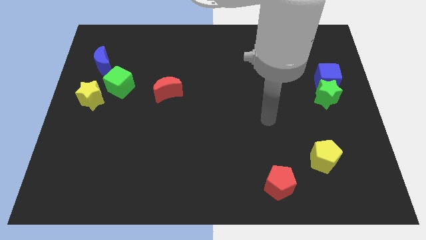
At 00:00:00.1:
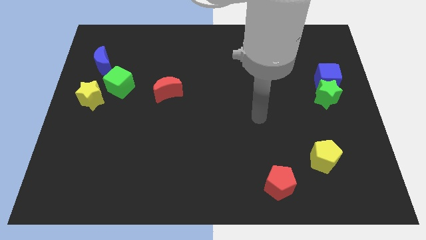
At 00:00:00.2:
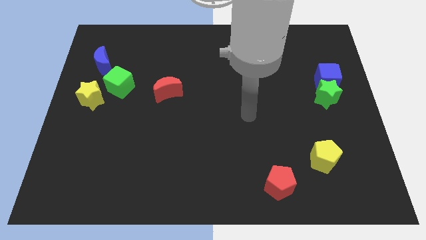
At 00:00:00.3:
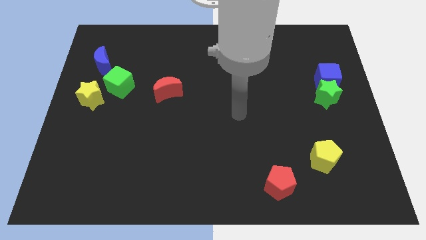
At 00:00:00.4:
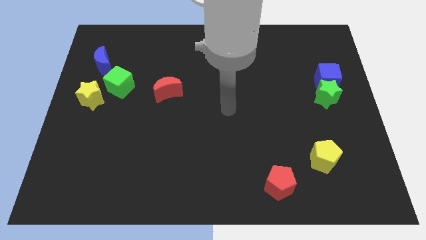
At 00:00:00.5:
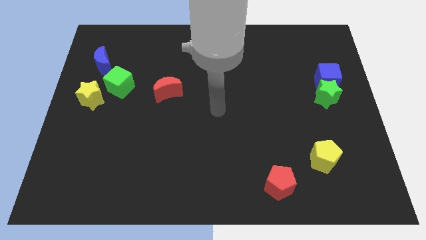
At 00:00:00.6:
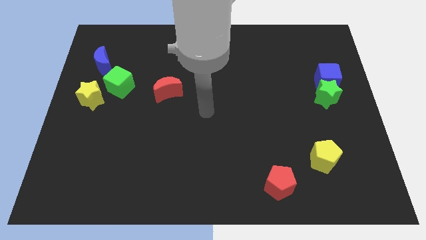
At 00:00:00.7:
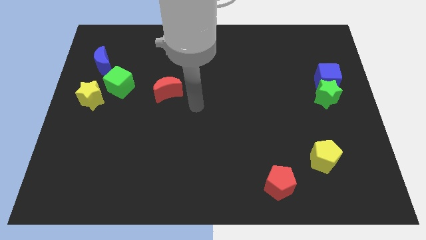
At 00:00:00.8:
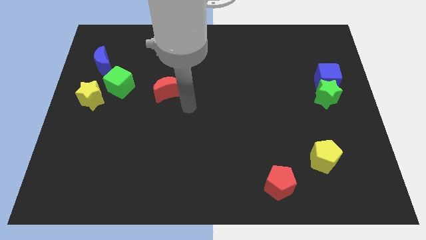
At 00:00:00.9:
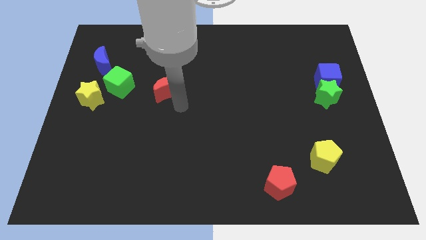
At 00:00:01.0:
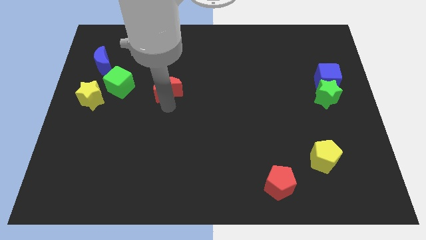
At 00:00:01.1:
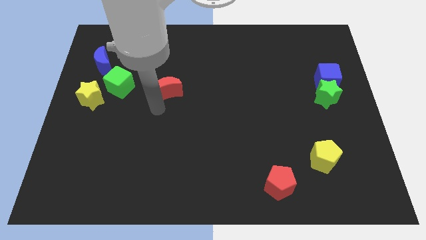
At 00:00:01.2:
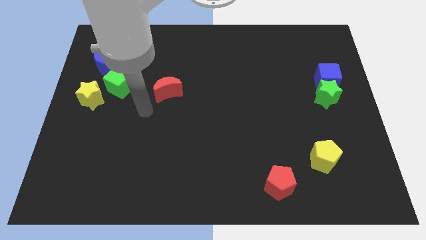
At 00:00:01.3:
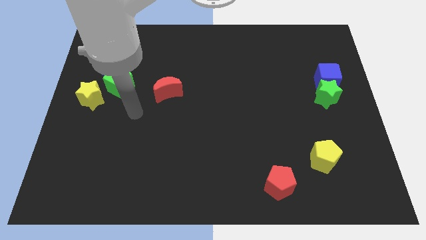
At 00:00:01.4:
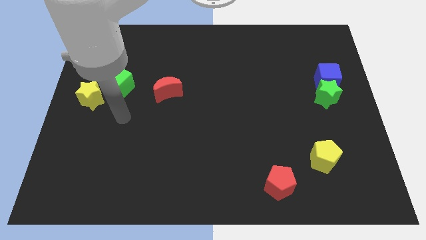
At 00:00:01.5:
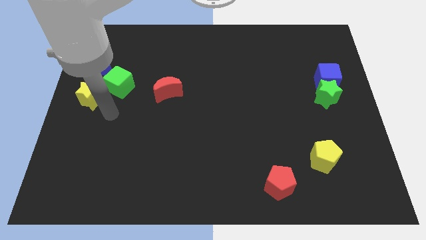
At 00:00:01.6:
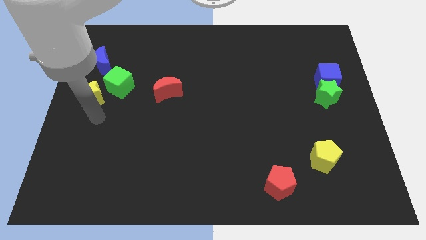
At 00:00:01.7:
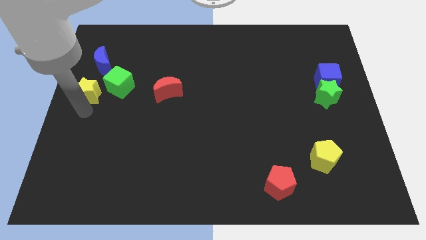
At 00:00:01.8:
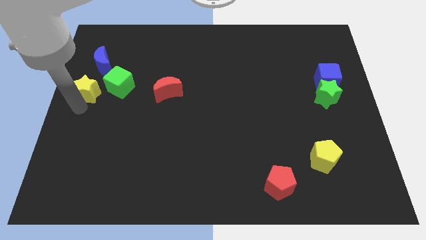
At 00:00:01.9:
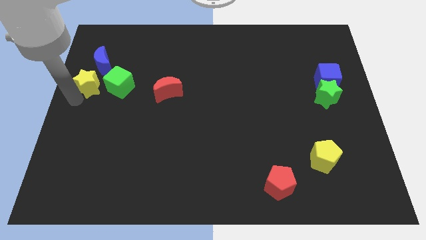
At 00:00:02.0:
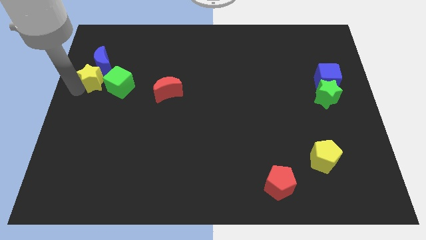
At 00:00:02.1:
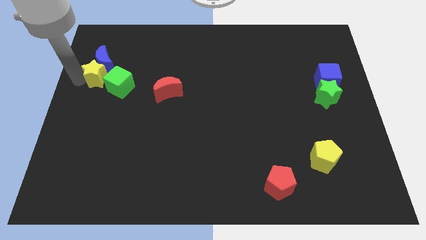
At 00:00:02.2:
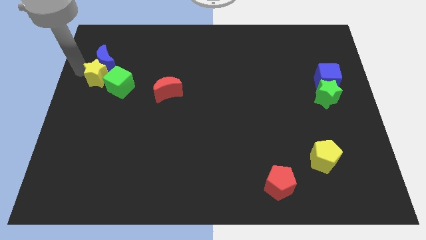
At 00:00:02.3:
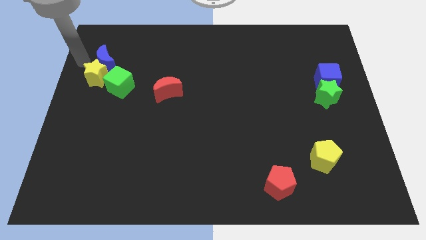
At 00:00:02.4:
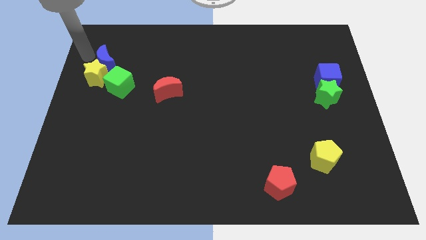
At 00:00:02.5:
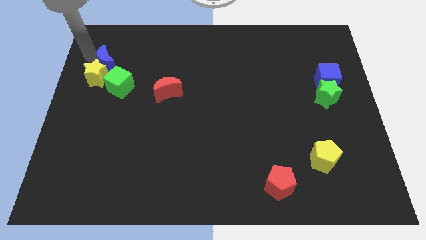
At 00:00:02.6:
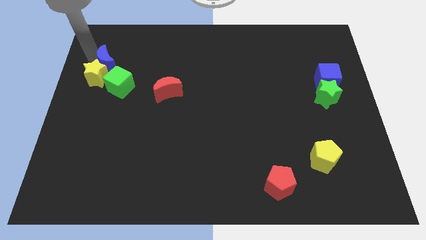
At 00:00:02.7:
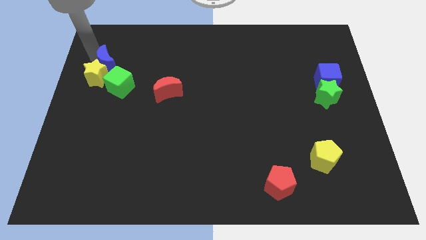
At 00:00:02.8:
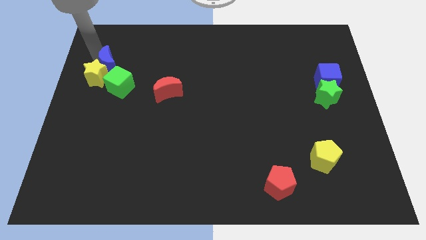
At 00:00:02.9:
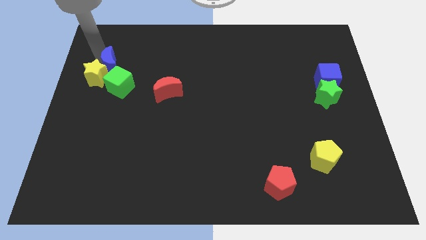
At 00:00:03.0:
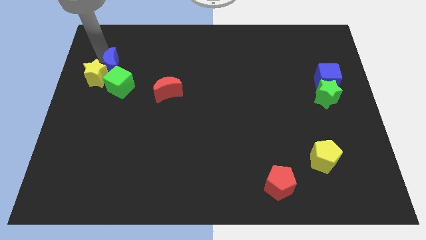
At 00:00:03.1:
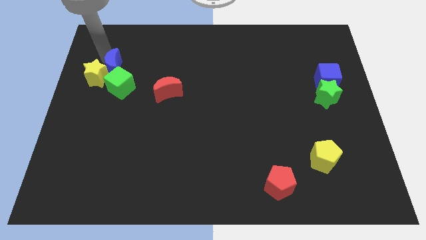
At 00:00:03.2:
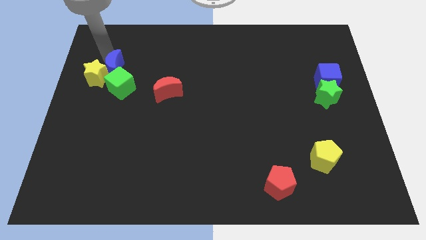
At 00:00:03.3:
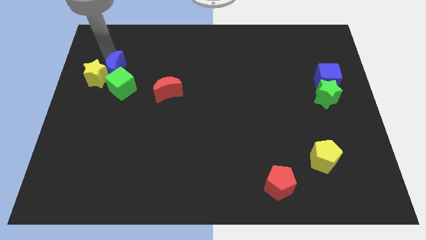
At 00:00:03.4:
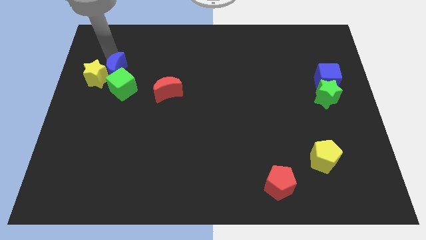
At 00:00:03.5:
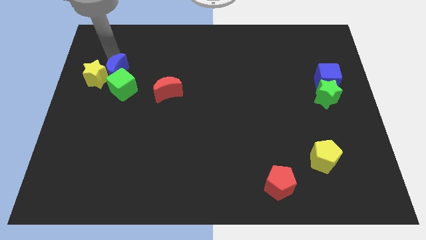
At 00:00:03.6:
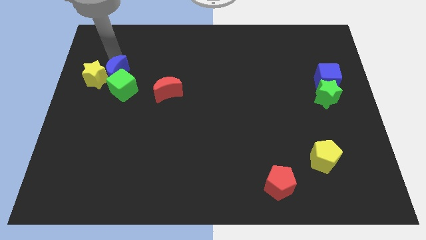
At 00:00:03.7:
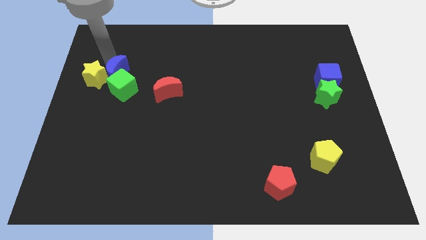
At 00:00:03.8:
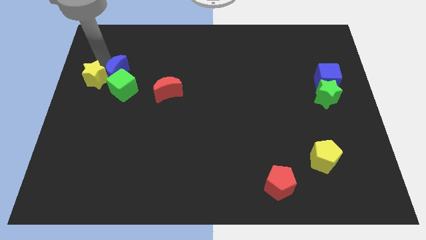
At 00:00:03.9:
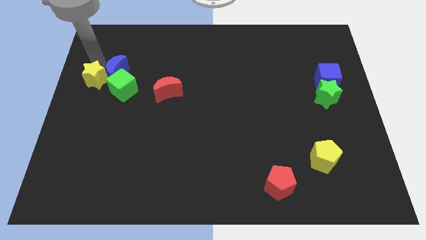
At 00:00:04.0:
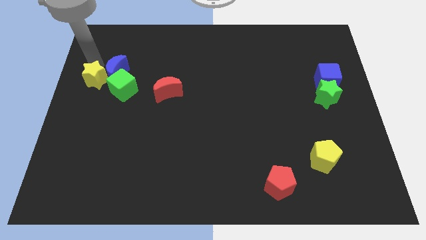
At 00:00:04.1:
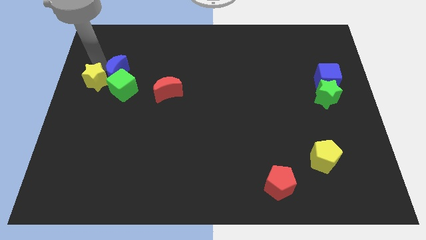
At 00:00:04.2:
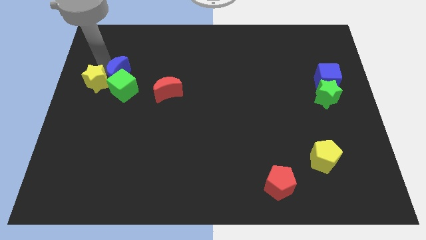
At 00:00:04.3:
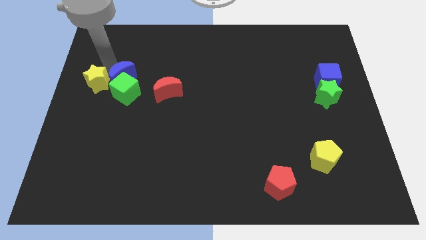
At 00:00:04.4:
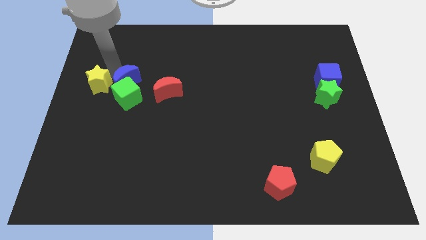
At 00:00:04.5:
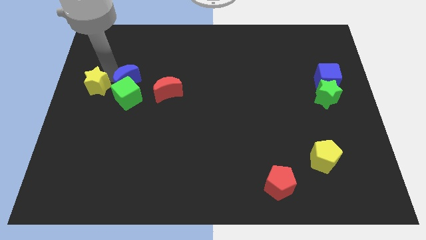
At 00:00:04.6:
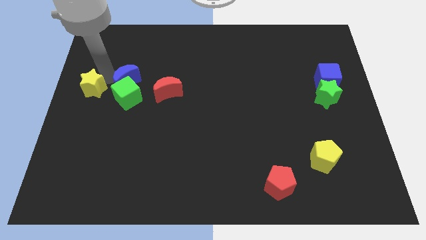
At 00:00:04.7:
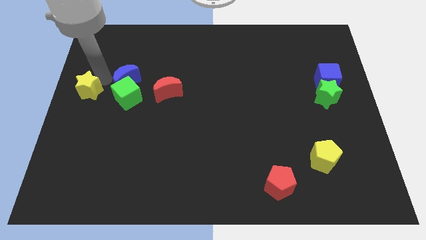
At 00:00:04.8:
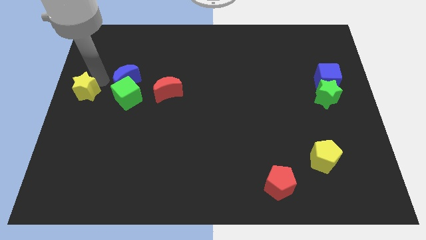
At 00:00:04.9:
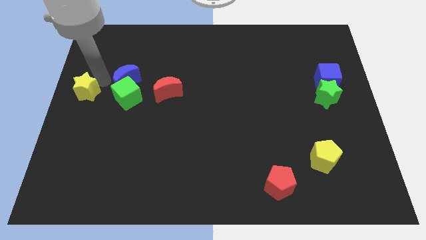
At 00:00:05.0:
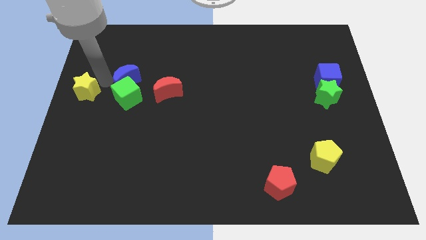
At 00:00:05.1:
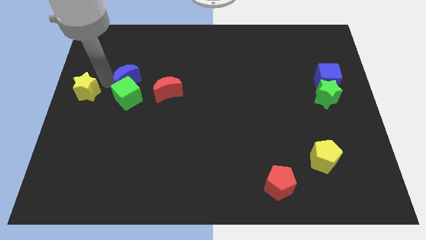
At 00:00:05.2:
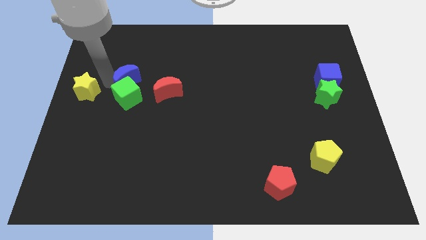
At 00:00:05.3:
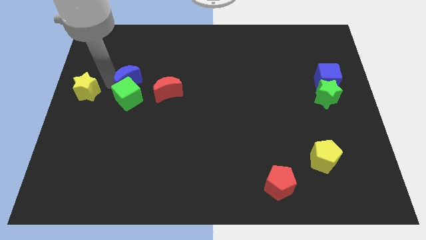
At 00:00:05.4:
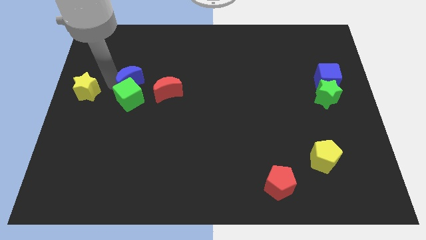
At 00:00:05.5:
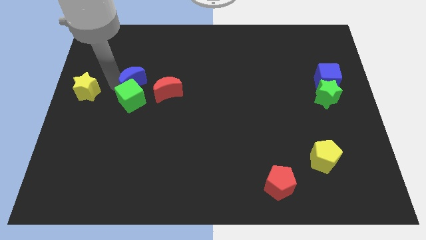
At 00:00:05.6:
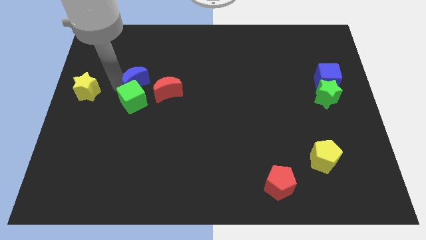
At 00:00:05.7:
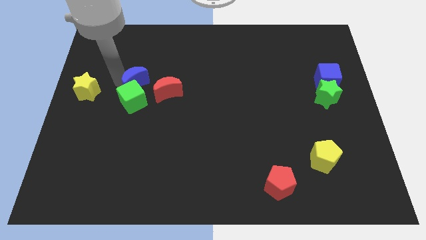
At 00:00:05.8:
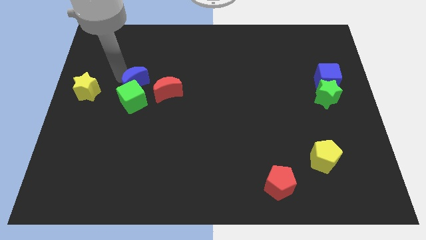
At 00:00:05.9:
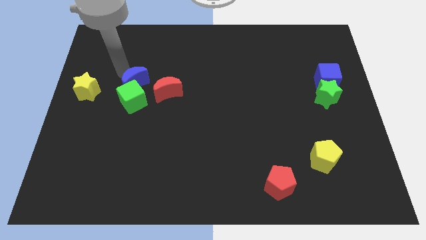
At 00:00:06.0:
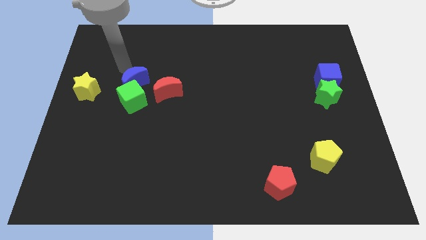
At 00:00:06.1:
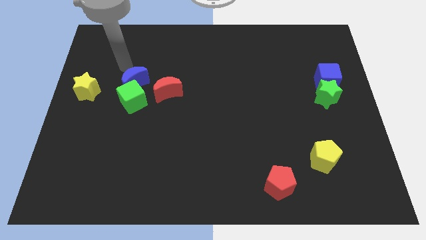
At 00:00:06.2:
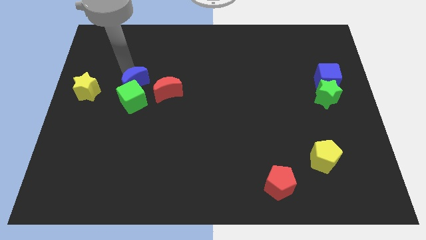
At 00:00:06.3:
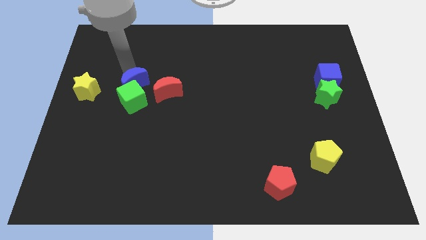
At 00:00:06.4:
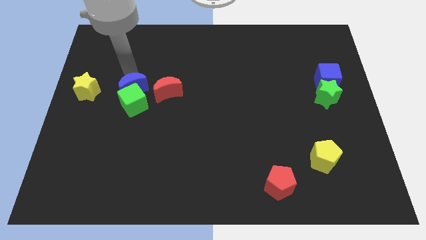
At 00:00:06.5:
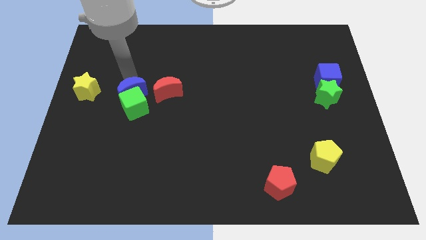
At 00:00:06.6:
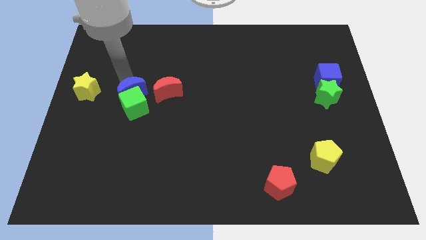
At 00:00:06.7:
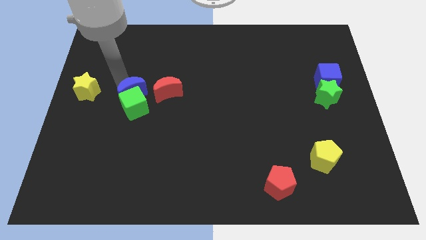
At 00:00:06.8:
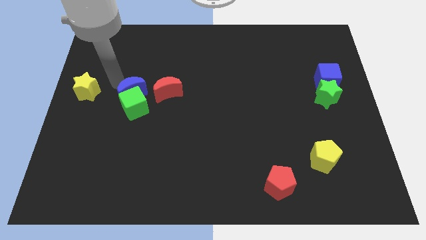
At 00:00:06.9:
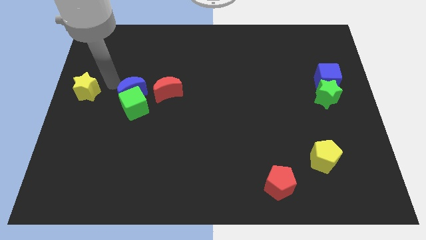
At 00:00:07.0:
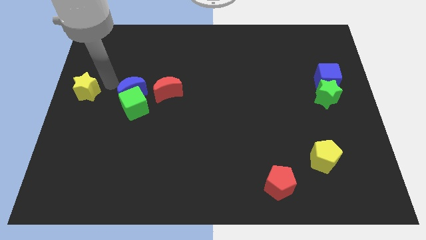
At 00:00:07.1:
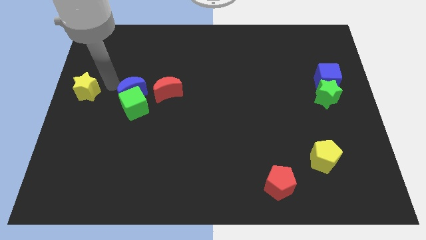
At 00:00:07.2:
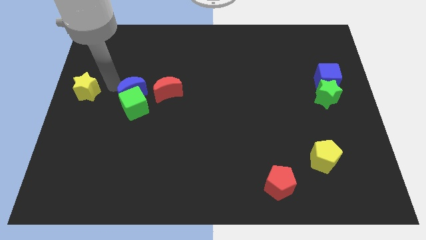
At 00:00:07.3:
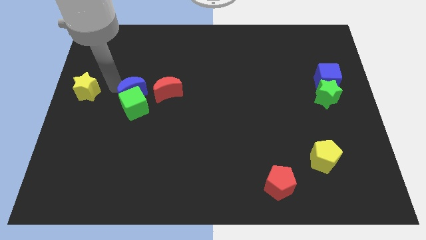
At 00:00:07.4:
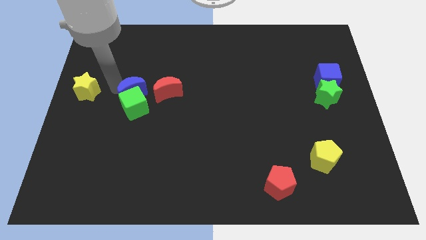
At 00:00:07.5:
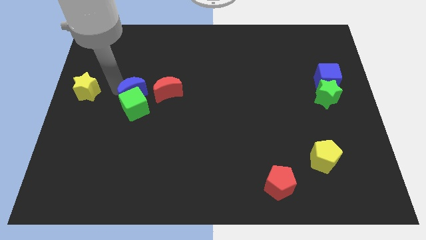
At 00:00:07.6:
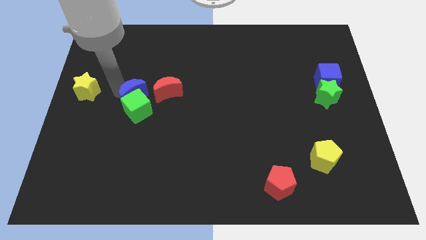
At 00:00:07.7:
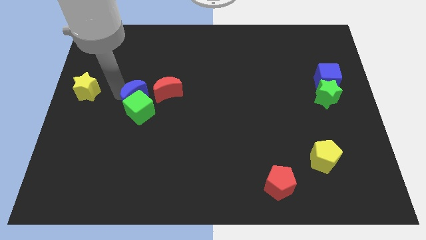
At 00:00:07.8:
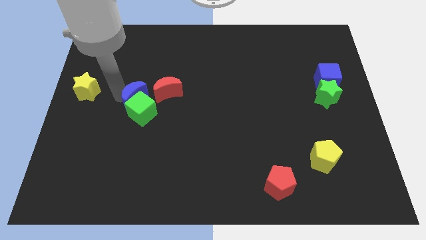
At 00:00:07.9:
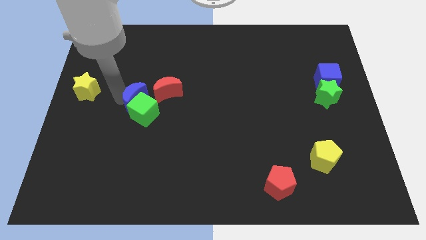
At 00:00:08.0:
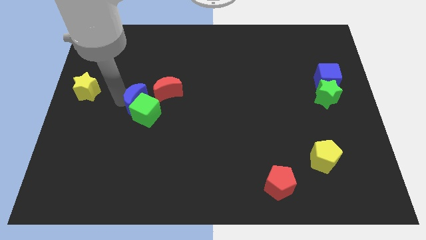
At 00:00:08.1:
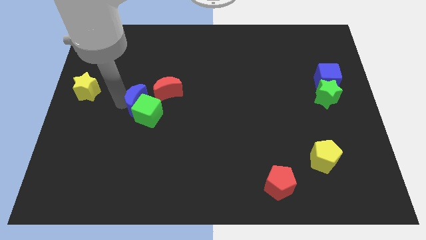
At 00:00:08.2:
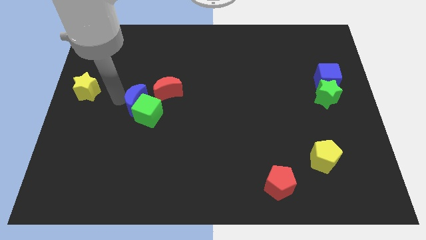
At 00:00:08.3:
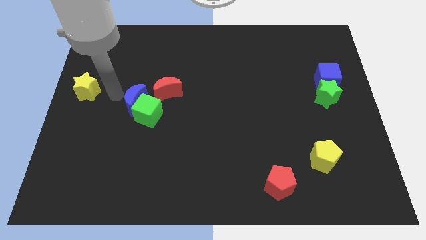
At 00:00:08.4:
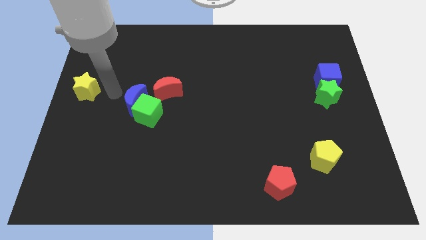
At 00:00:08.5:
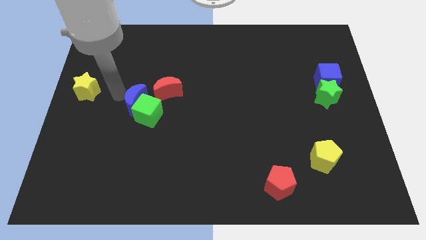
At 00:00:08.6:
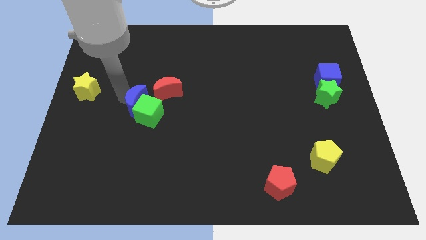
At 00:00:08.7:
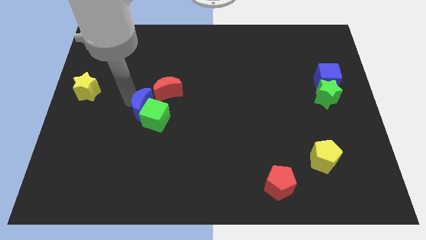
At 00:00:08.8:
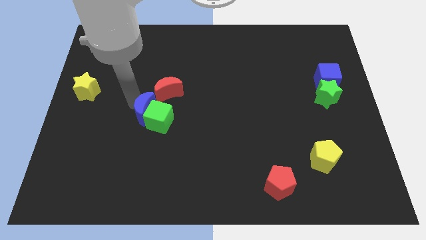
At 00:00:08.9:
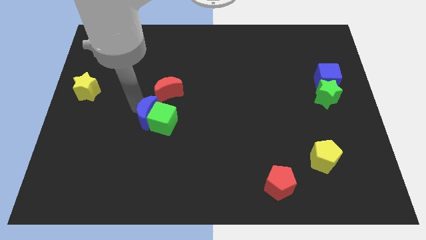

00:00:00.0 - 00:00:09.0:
slide the blue moon diagonally down and to the right
